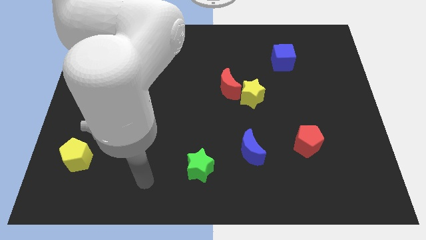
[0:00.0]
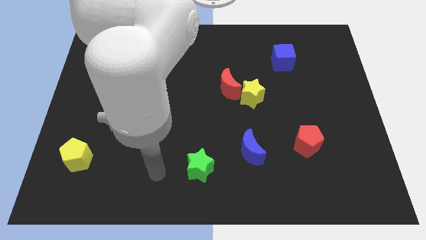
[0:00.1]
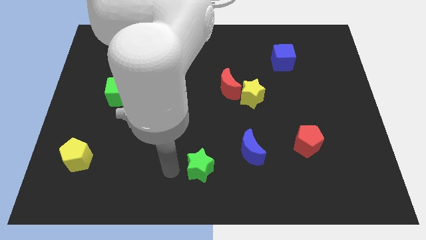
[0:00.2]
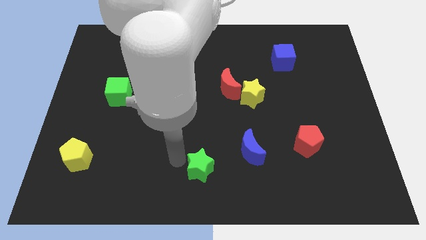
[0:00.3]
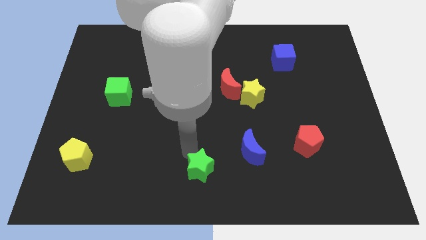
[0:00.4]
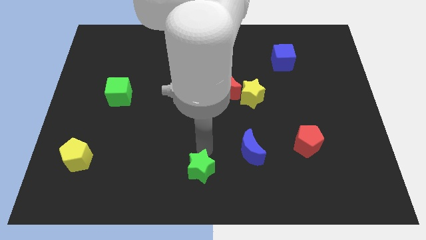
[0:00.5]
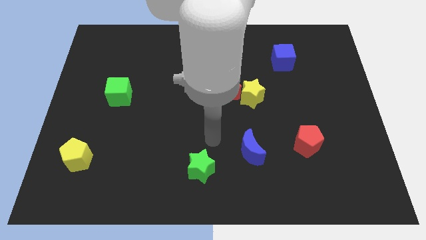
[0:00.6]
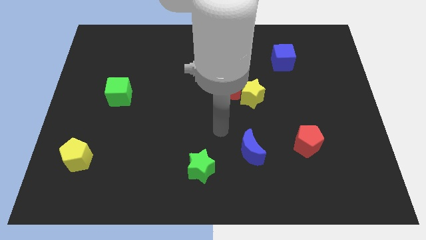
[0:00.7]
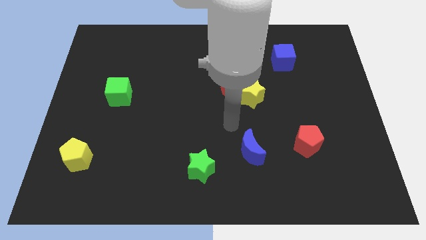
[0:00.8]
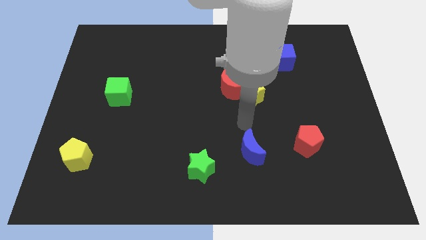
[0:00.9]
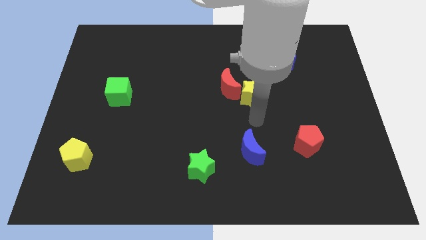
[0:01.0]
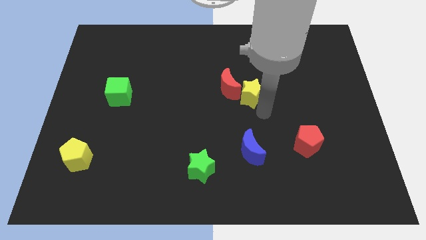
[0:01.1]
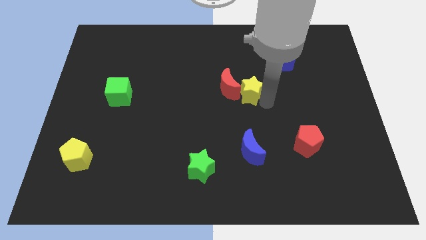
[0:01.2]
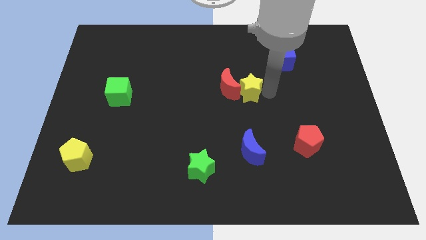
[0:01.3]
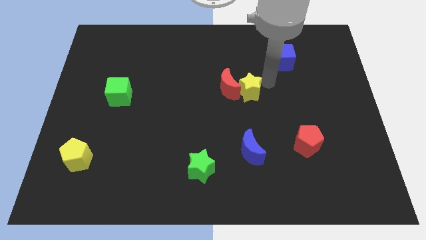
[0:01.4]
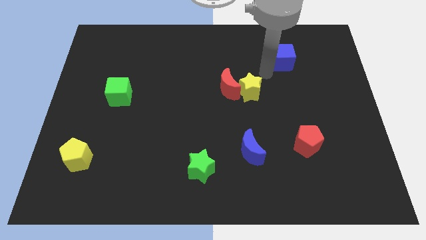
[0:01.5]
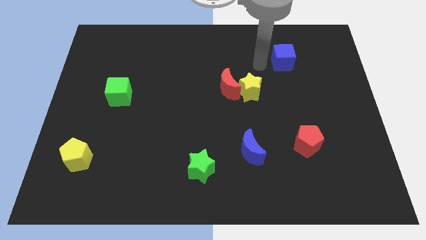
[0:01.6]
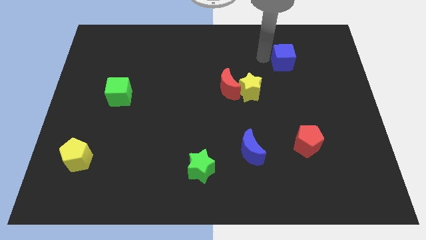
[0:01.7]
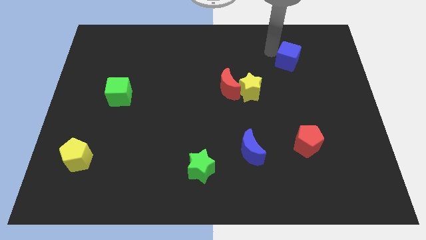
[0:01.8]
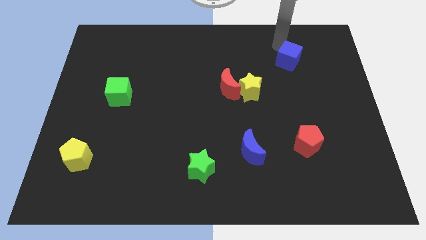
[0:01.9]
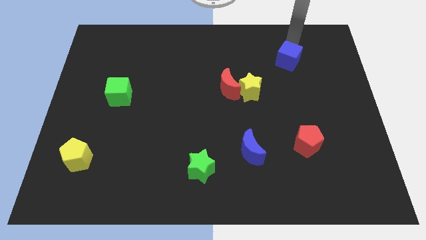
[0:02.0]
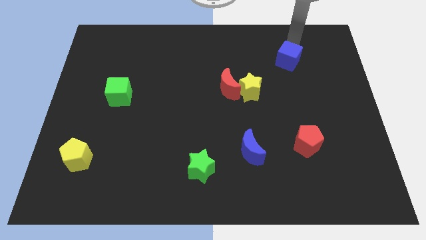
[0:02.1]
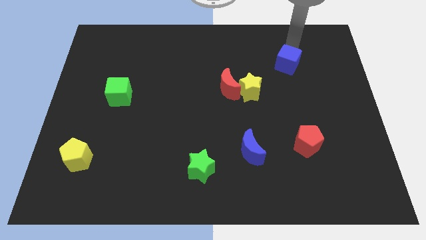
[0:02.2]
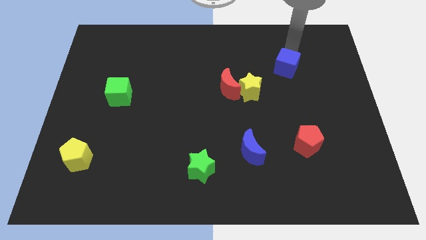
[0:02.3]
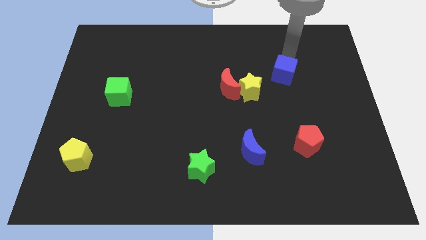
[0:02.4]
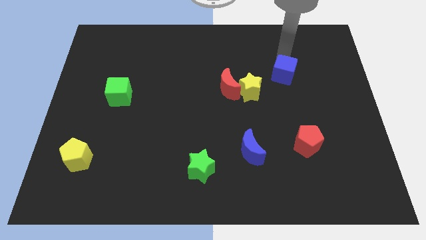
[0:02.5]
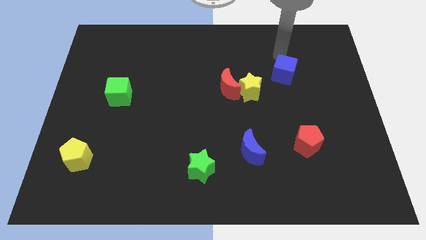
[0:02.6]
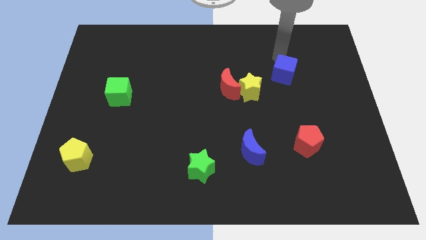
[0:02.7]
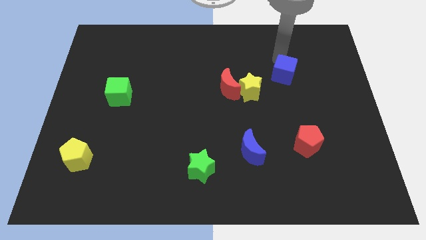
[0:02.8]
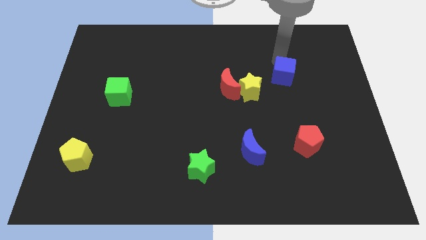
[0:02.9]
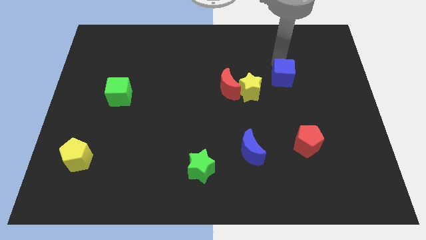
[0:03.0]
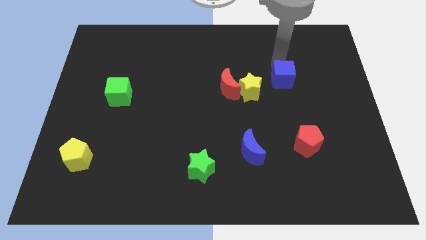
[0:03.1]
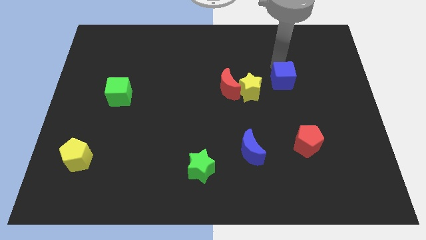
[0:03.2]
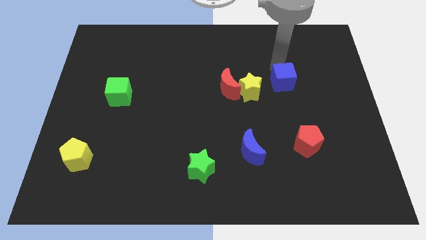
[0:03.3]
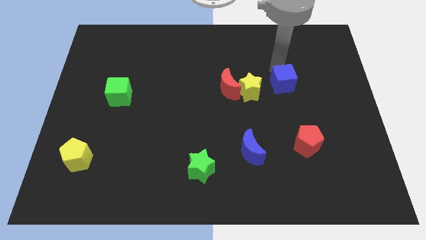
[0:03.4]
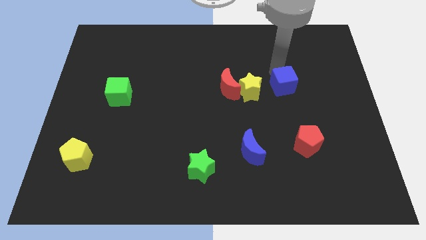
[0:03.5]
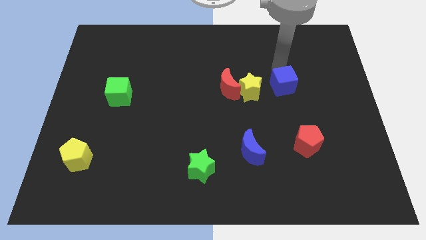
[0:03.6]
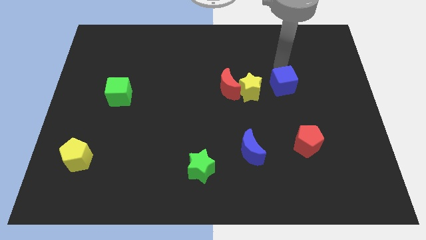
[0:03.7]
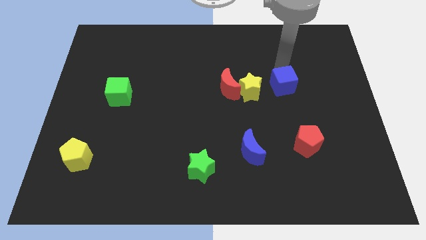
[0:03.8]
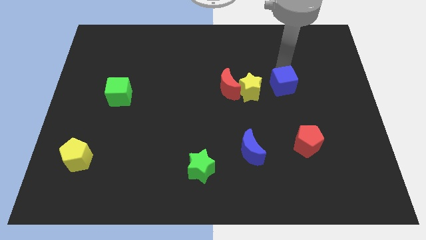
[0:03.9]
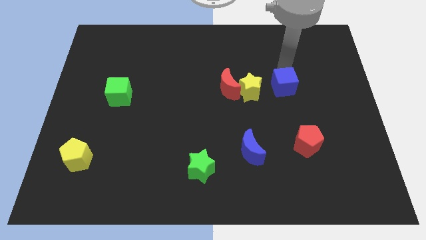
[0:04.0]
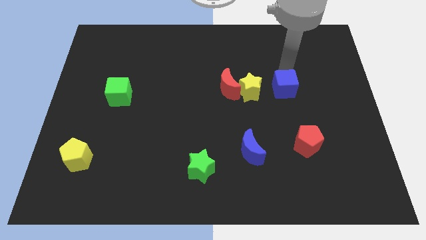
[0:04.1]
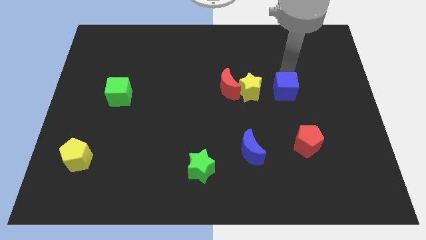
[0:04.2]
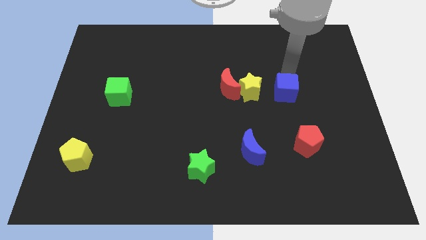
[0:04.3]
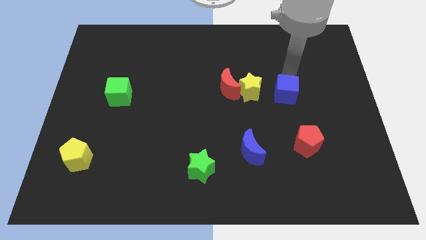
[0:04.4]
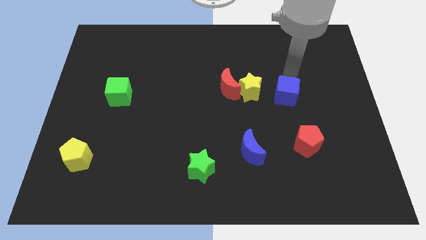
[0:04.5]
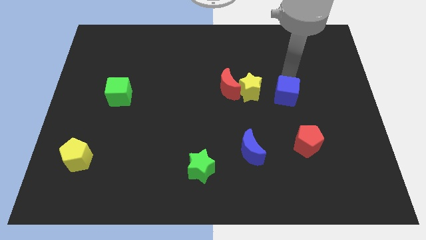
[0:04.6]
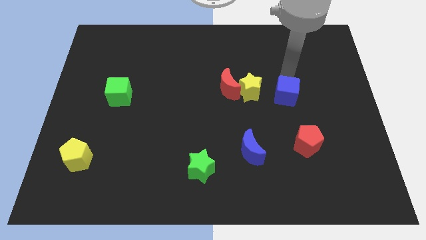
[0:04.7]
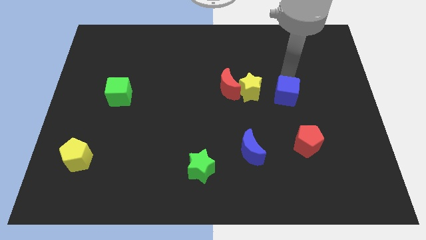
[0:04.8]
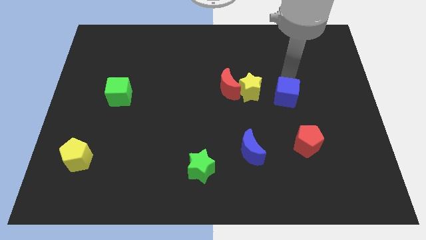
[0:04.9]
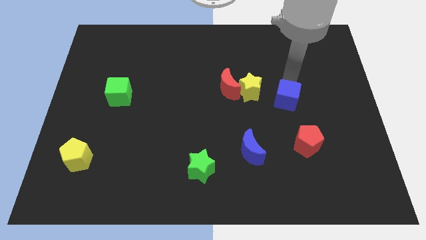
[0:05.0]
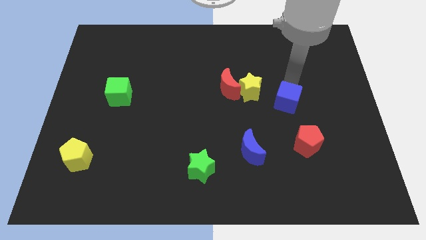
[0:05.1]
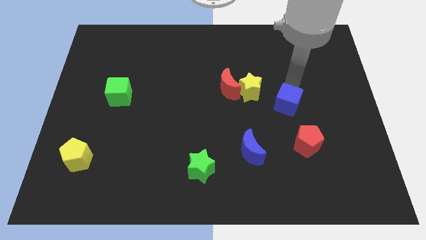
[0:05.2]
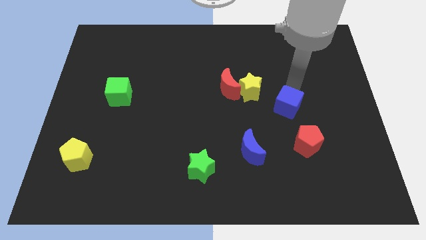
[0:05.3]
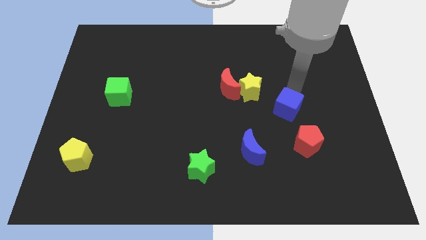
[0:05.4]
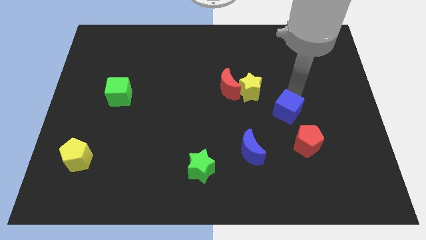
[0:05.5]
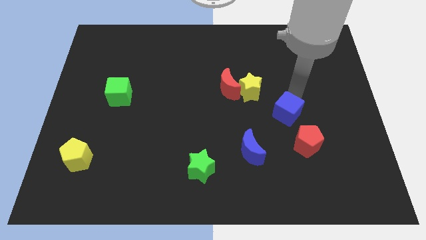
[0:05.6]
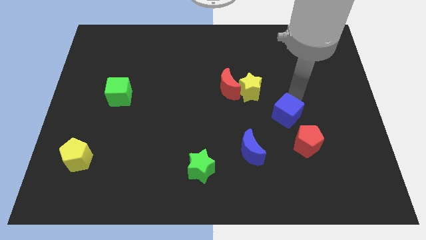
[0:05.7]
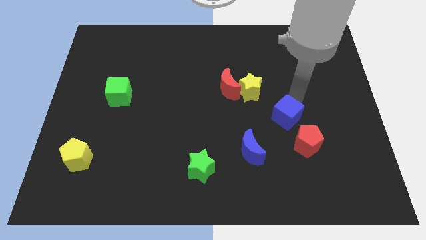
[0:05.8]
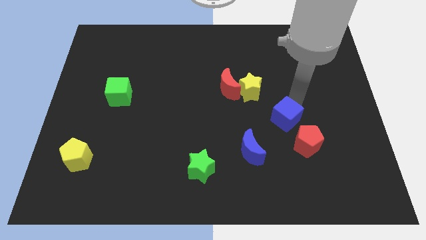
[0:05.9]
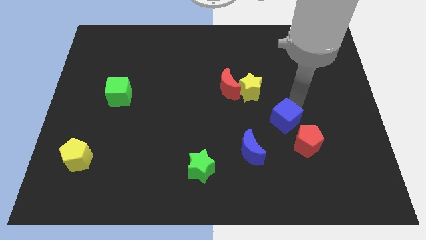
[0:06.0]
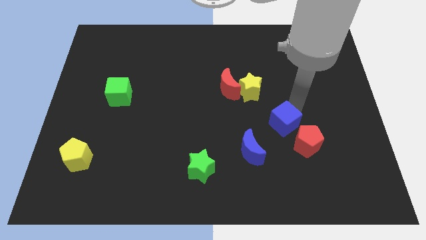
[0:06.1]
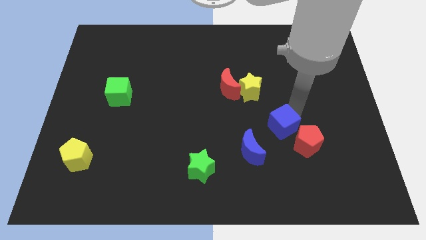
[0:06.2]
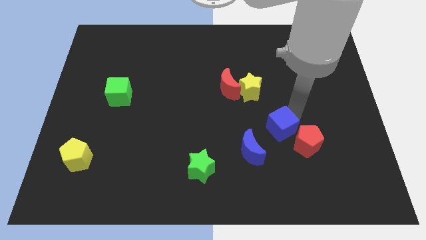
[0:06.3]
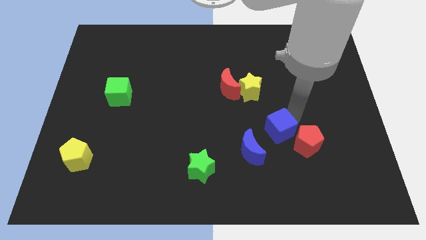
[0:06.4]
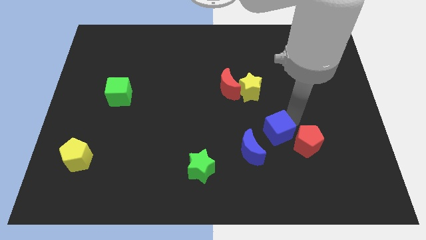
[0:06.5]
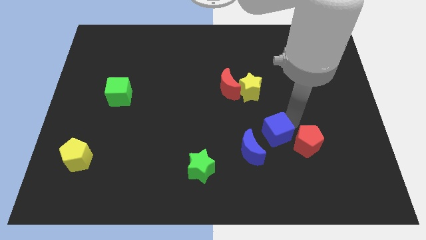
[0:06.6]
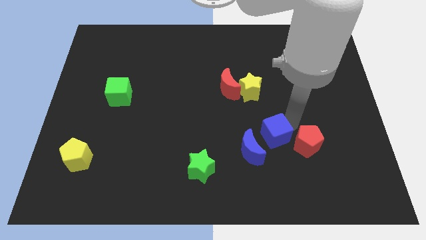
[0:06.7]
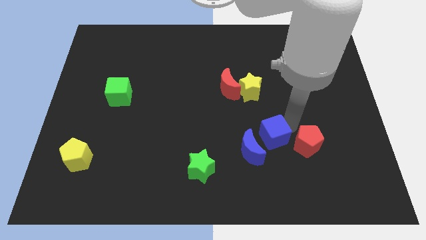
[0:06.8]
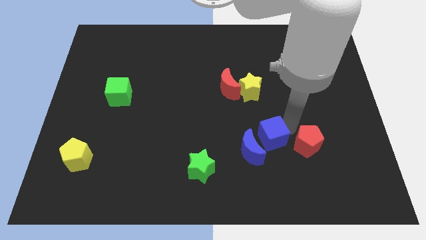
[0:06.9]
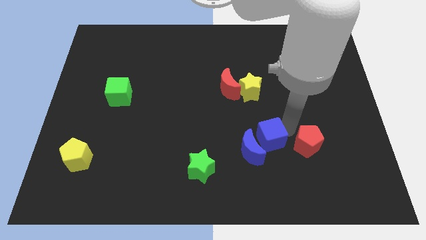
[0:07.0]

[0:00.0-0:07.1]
move the blue cube towards the blue moon
